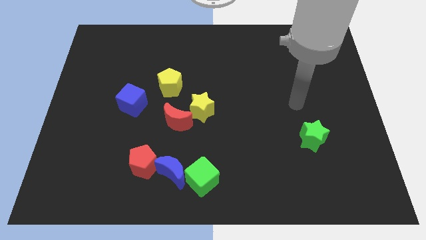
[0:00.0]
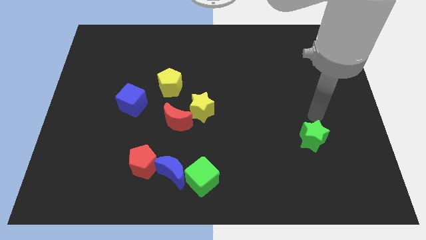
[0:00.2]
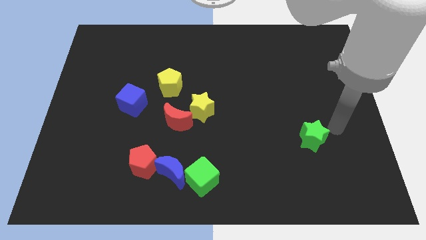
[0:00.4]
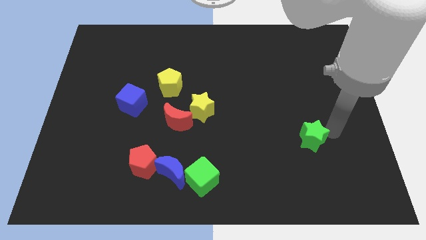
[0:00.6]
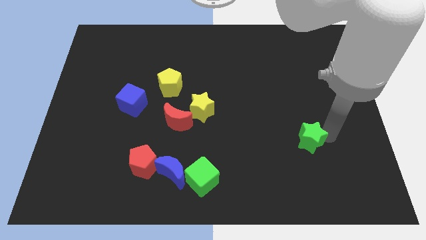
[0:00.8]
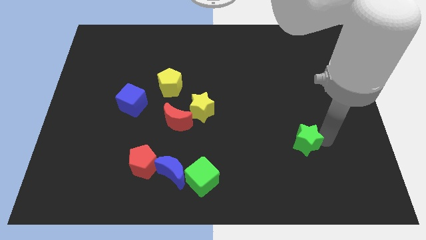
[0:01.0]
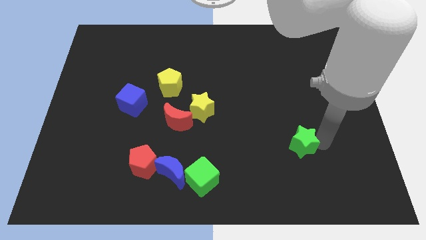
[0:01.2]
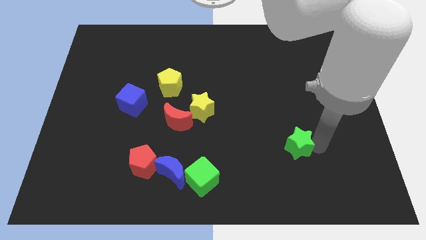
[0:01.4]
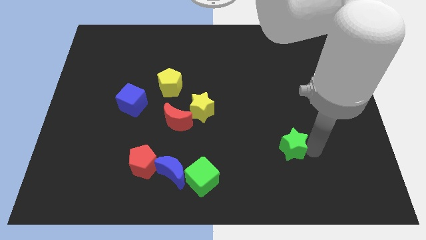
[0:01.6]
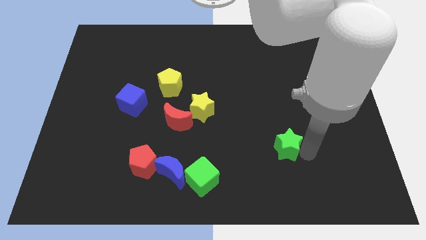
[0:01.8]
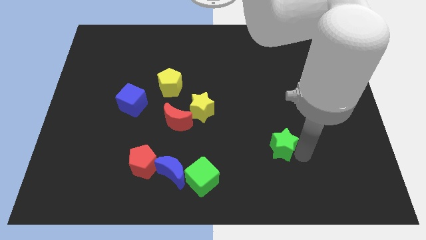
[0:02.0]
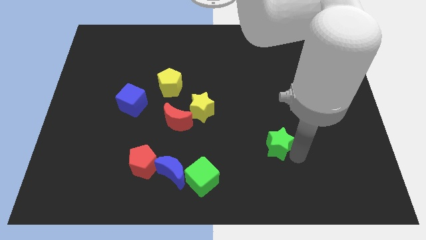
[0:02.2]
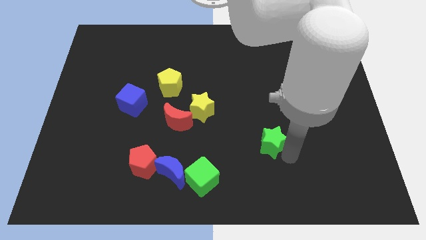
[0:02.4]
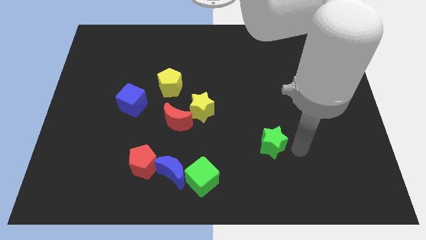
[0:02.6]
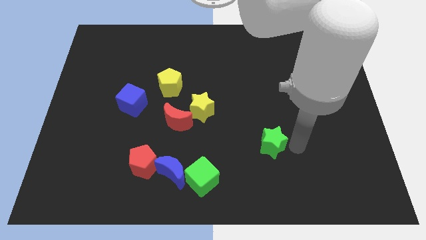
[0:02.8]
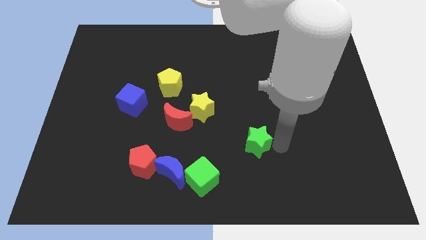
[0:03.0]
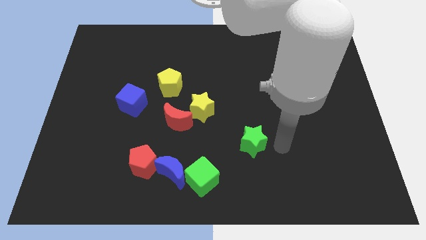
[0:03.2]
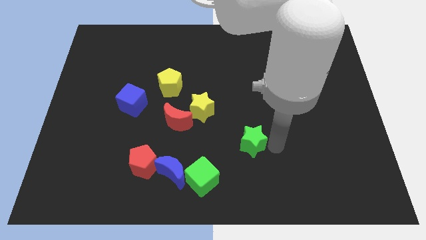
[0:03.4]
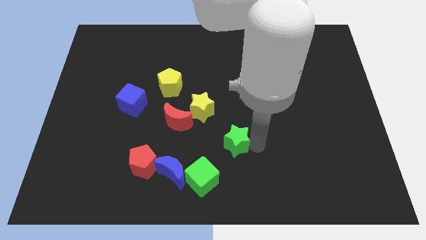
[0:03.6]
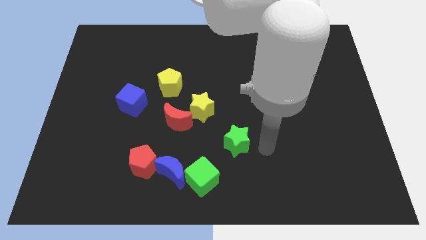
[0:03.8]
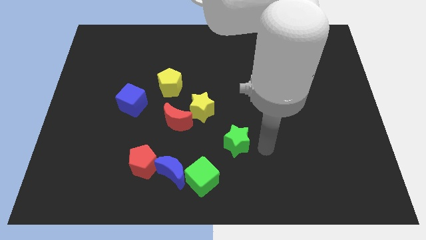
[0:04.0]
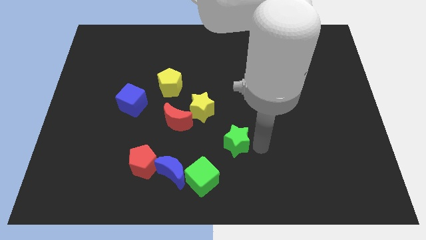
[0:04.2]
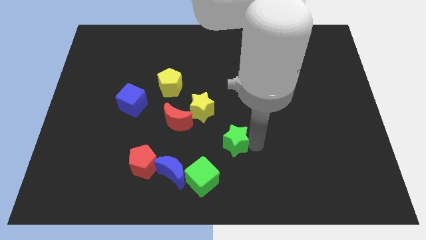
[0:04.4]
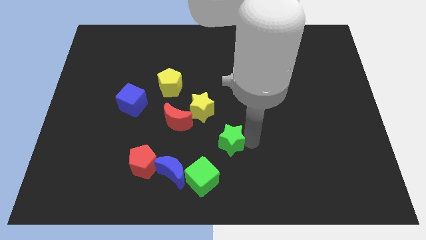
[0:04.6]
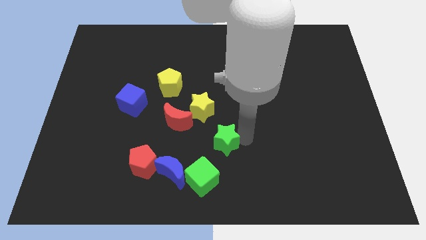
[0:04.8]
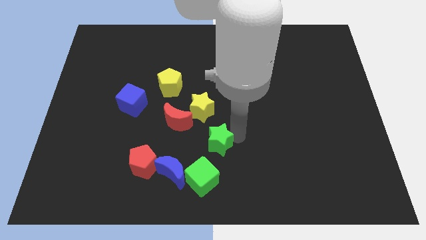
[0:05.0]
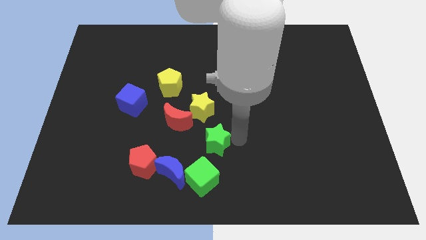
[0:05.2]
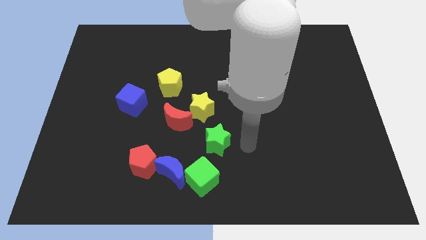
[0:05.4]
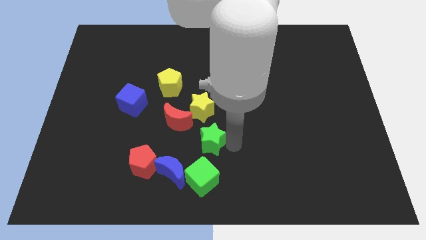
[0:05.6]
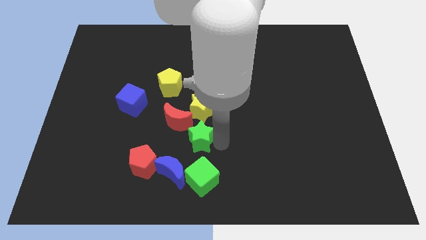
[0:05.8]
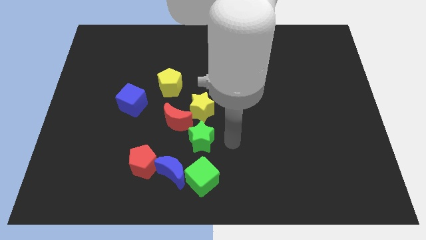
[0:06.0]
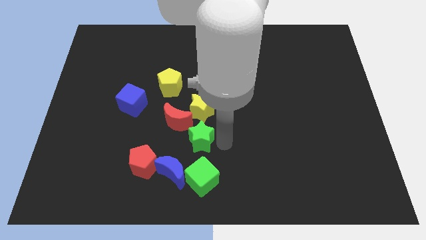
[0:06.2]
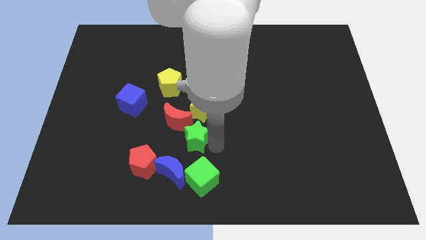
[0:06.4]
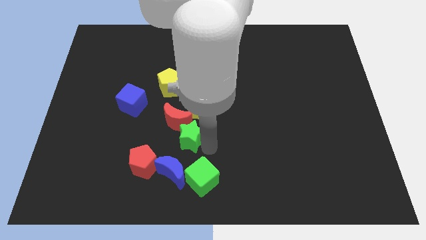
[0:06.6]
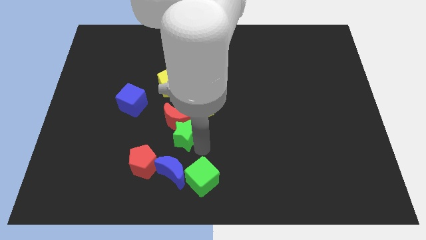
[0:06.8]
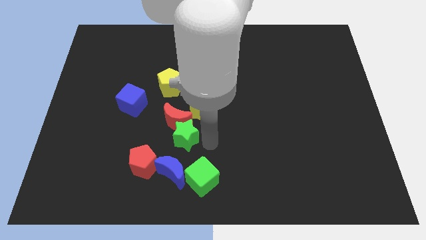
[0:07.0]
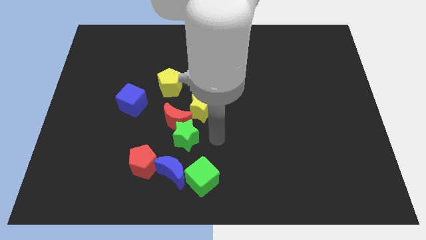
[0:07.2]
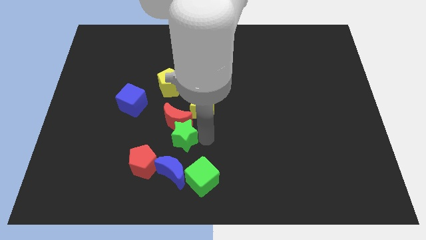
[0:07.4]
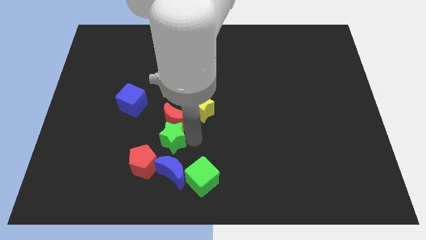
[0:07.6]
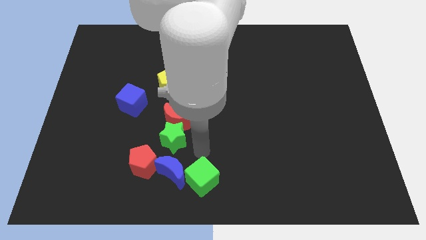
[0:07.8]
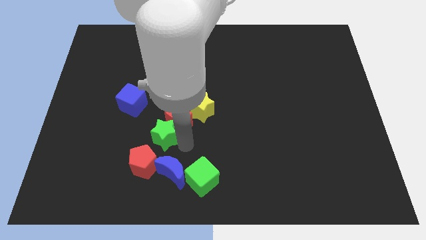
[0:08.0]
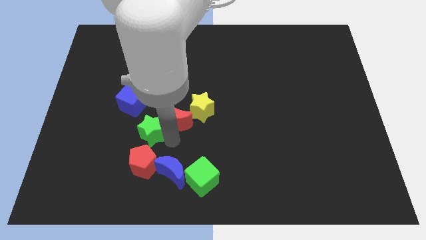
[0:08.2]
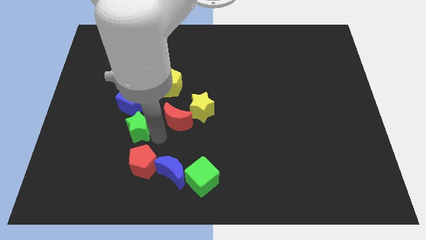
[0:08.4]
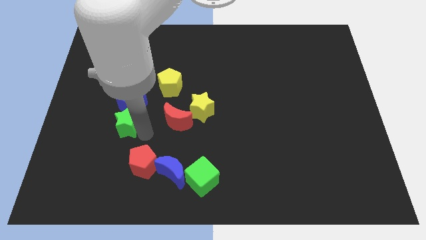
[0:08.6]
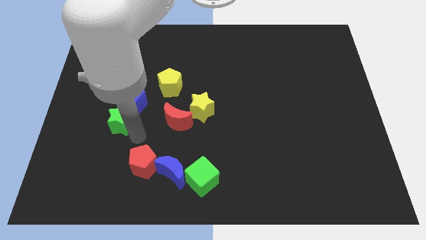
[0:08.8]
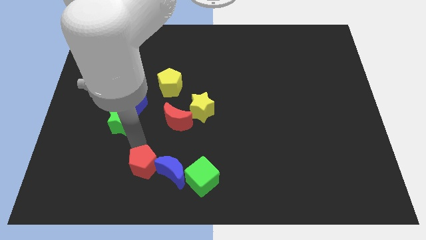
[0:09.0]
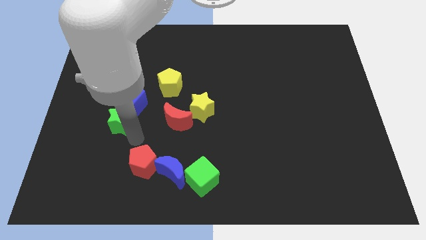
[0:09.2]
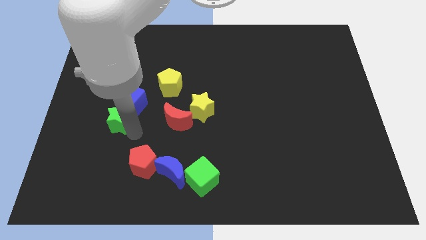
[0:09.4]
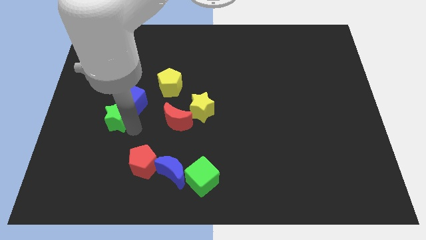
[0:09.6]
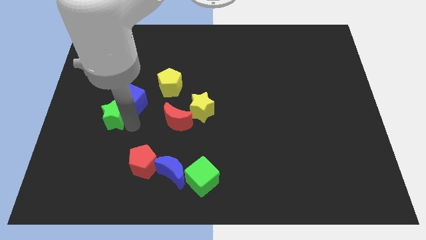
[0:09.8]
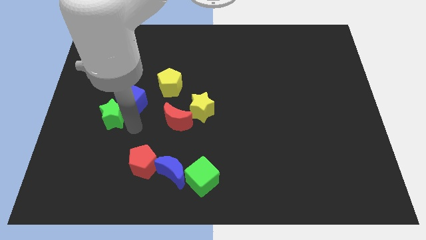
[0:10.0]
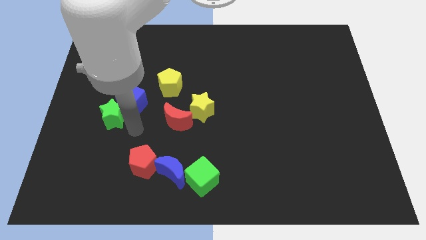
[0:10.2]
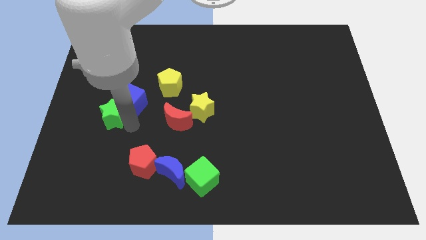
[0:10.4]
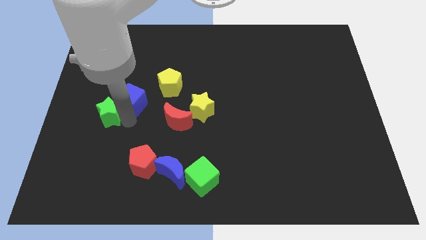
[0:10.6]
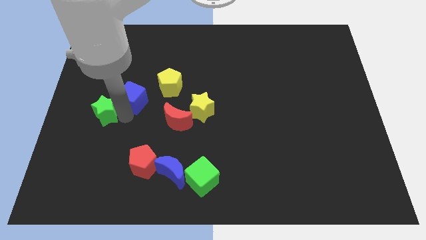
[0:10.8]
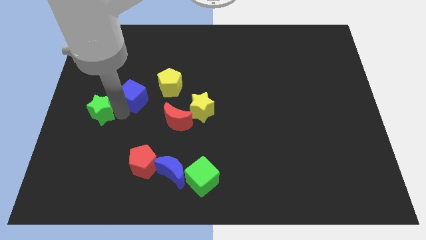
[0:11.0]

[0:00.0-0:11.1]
slide the green star to the left side

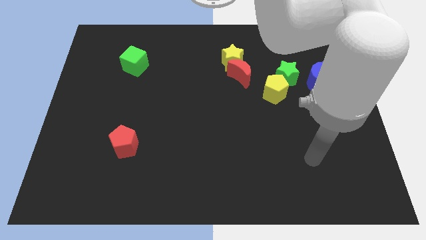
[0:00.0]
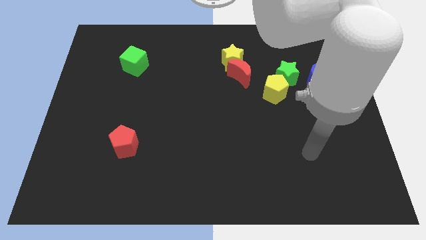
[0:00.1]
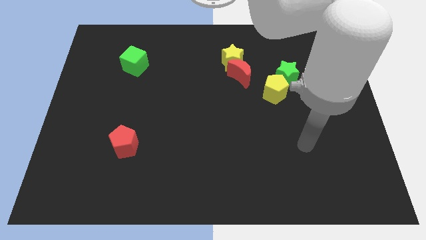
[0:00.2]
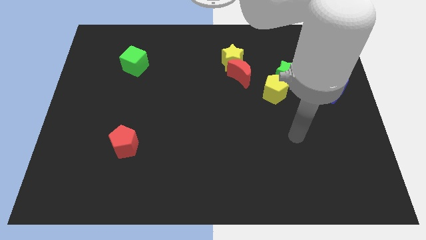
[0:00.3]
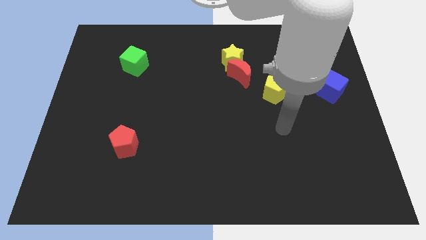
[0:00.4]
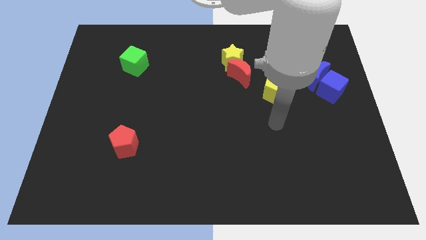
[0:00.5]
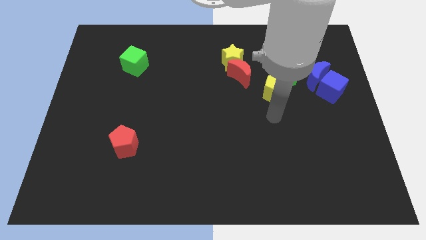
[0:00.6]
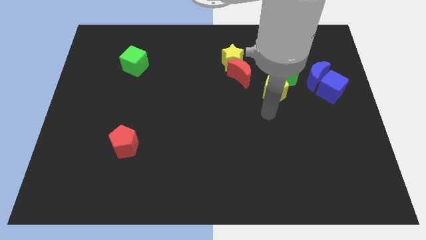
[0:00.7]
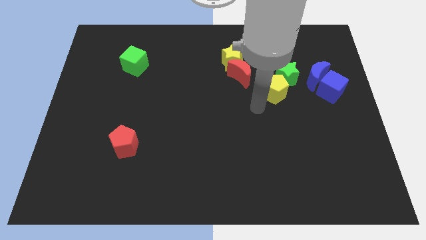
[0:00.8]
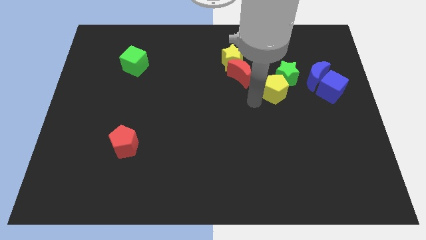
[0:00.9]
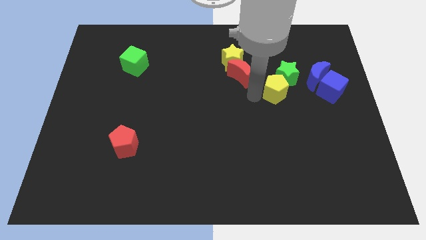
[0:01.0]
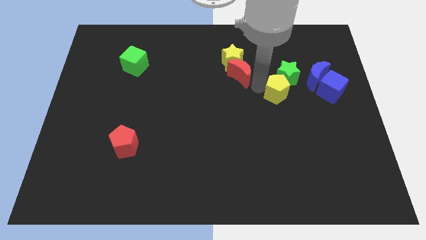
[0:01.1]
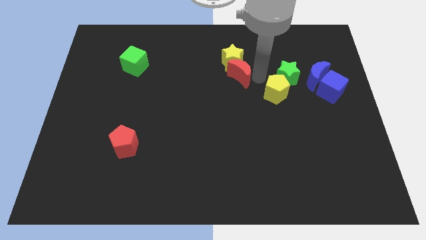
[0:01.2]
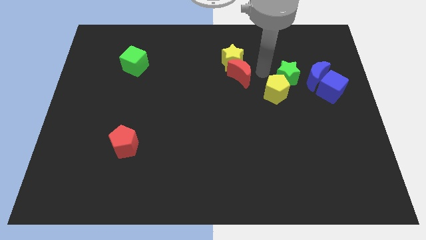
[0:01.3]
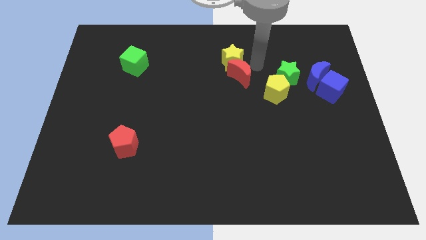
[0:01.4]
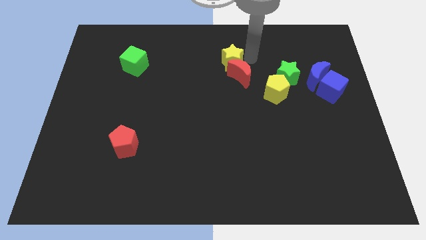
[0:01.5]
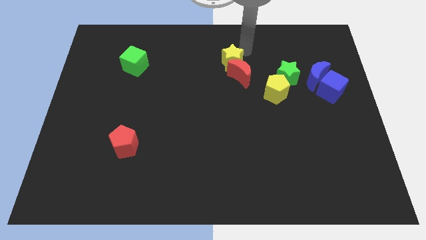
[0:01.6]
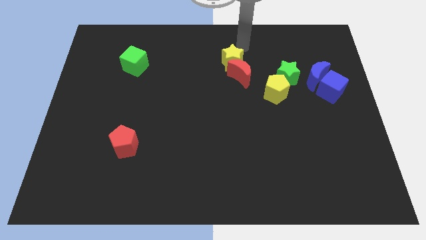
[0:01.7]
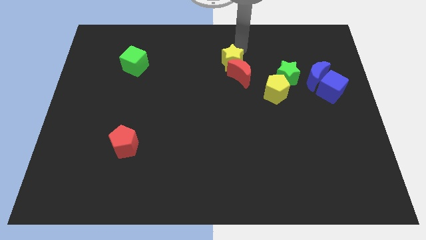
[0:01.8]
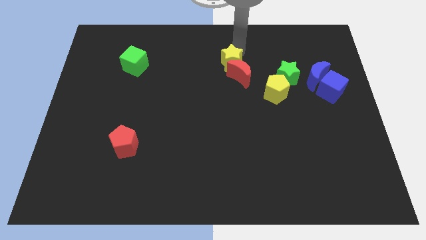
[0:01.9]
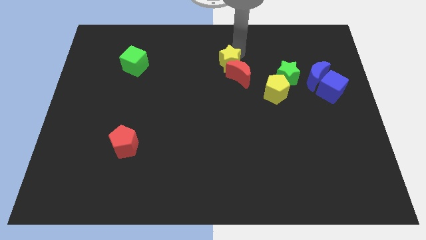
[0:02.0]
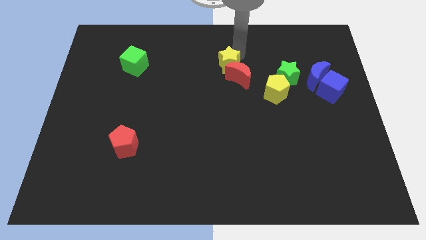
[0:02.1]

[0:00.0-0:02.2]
move the yellow star to the middle of the board
